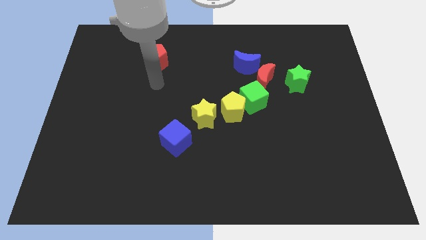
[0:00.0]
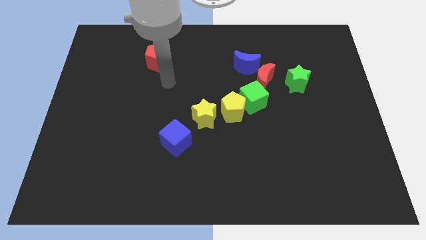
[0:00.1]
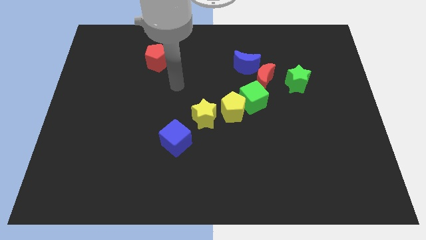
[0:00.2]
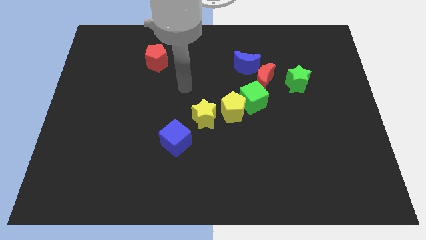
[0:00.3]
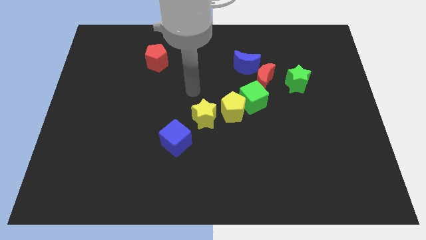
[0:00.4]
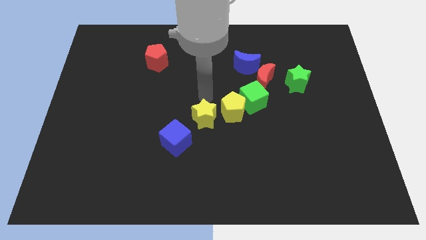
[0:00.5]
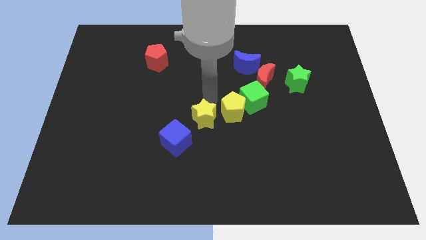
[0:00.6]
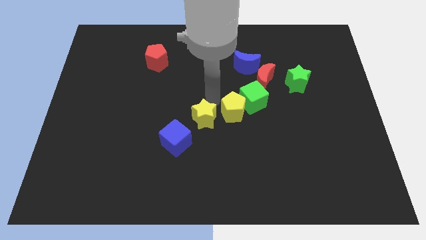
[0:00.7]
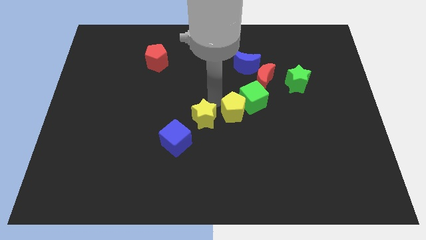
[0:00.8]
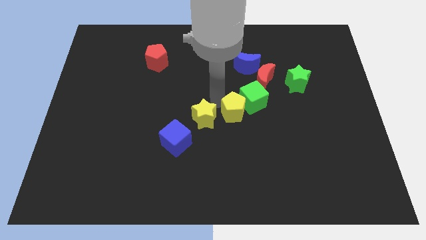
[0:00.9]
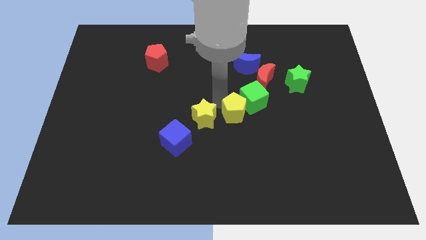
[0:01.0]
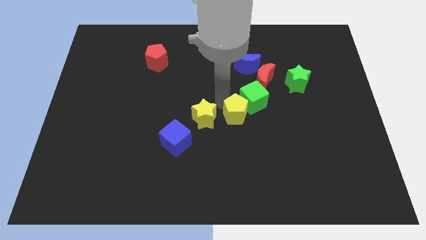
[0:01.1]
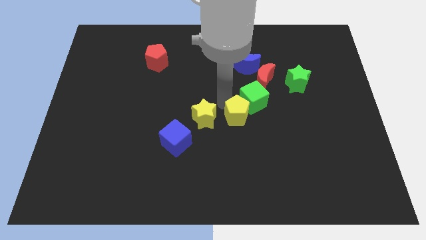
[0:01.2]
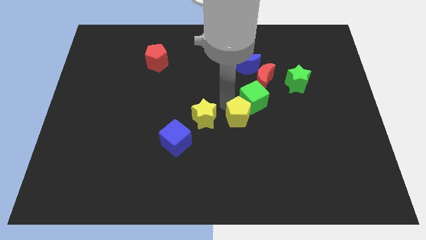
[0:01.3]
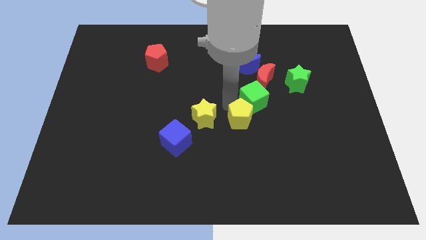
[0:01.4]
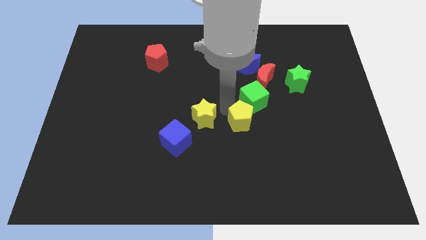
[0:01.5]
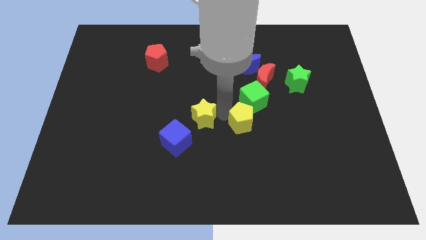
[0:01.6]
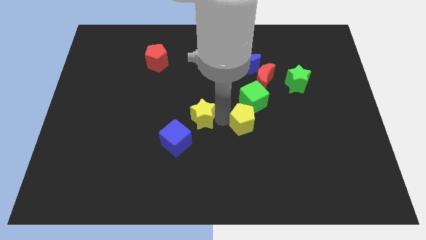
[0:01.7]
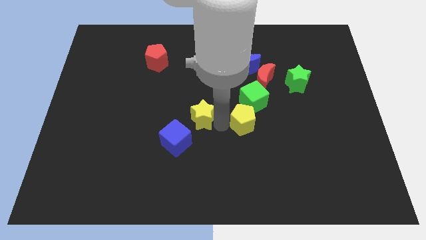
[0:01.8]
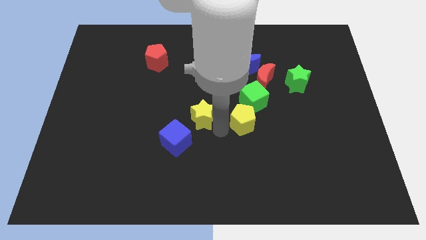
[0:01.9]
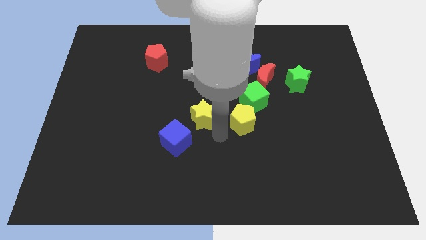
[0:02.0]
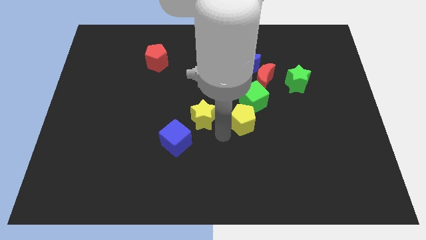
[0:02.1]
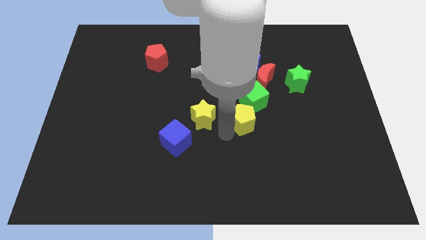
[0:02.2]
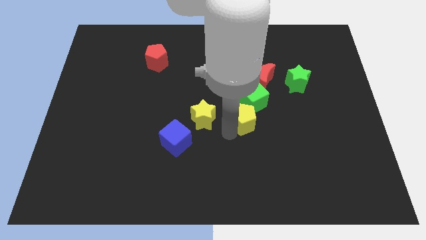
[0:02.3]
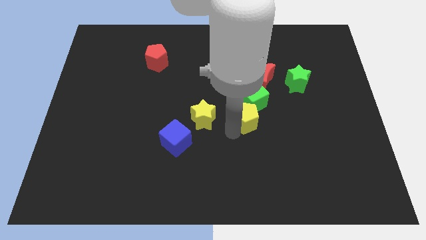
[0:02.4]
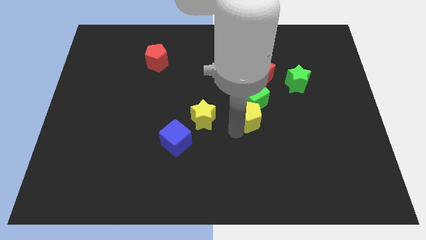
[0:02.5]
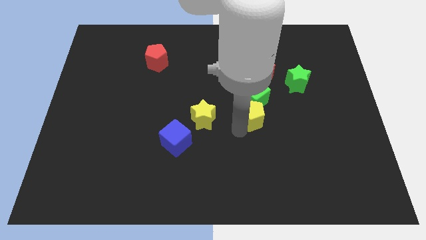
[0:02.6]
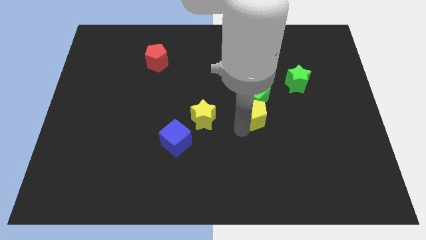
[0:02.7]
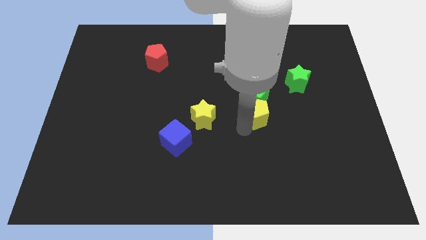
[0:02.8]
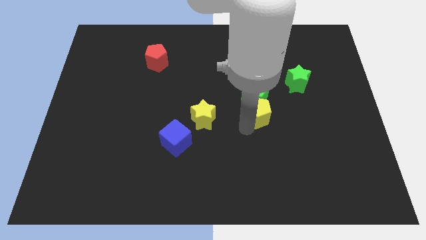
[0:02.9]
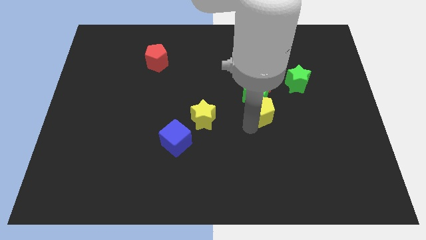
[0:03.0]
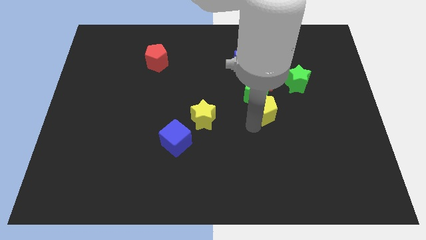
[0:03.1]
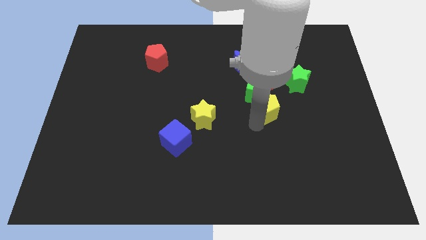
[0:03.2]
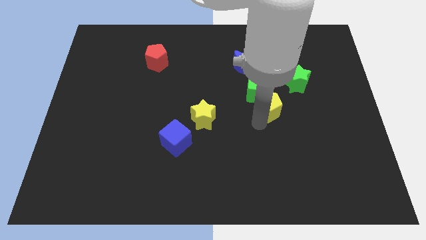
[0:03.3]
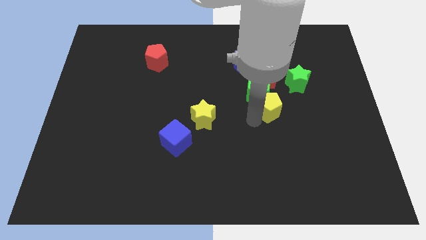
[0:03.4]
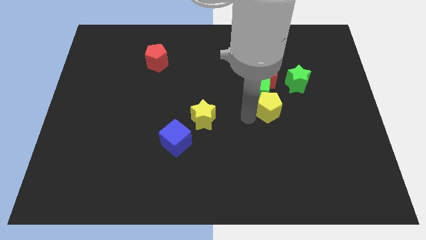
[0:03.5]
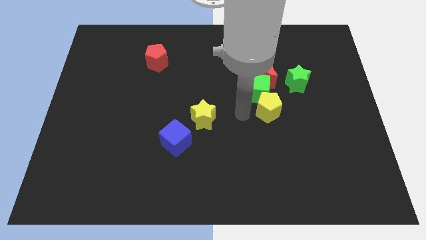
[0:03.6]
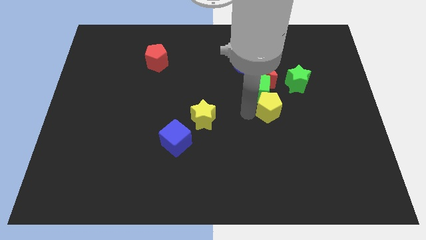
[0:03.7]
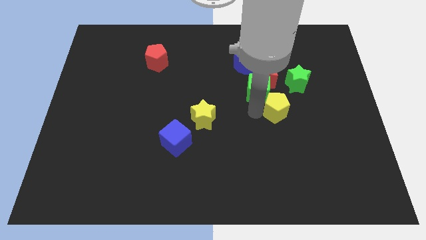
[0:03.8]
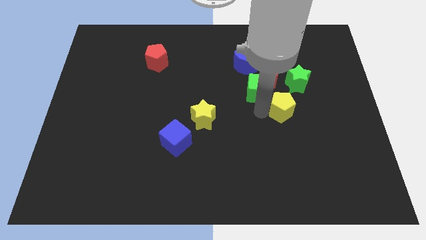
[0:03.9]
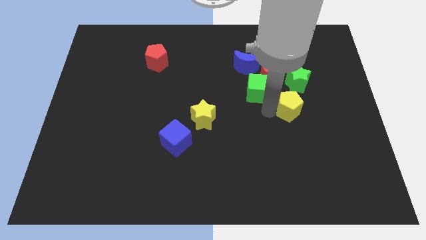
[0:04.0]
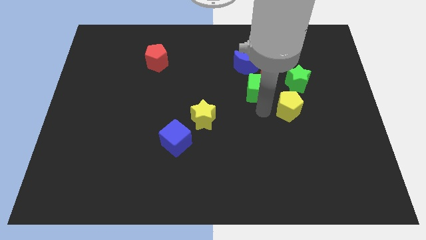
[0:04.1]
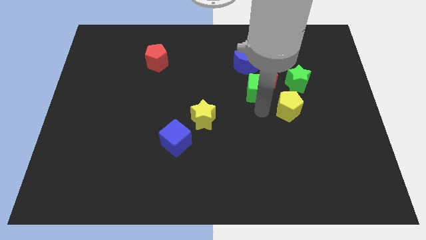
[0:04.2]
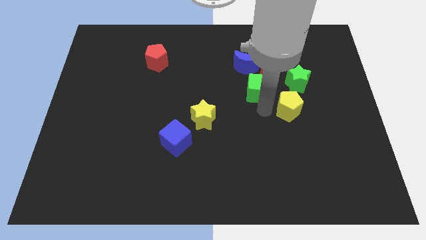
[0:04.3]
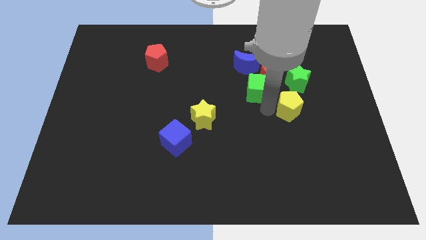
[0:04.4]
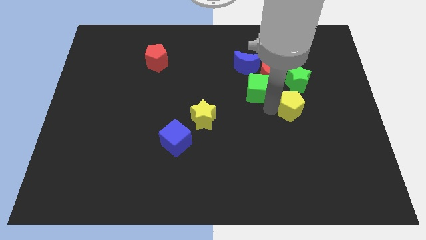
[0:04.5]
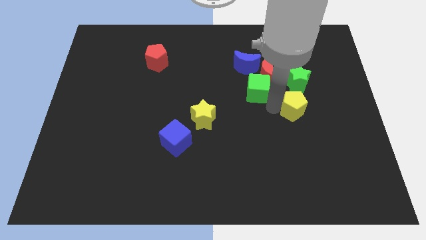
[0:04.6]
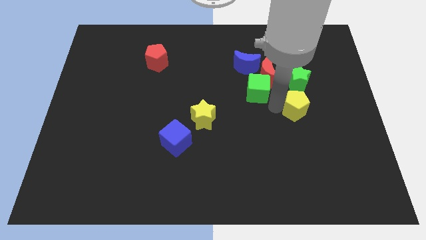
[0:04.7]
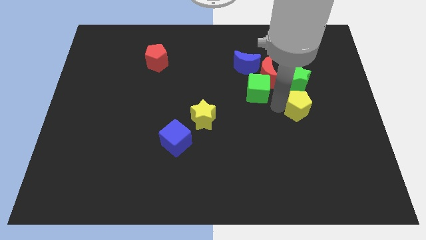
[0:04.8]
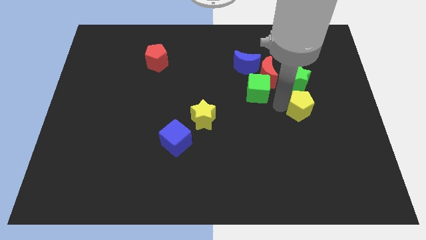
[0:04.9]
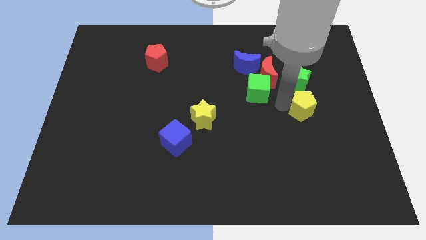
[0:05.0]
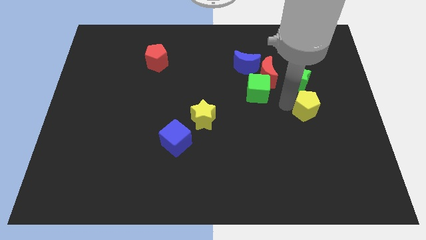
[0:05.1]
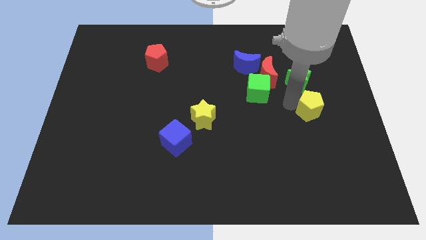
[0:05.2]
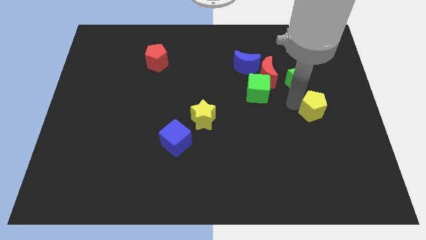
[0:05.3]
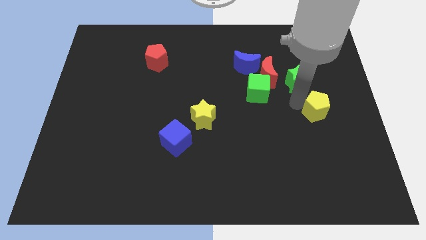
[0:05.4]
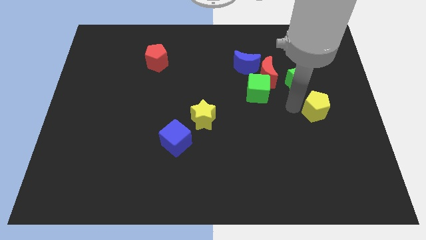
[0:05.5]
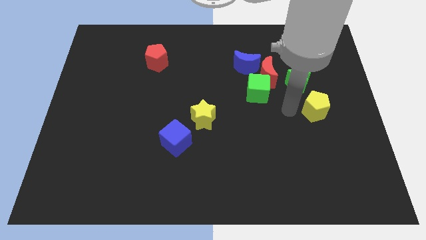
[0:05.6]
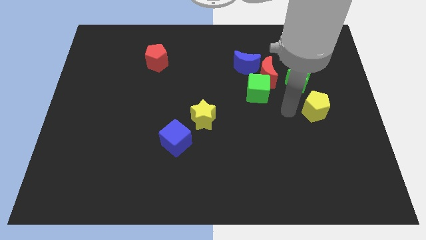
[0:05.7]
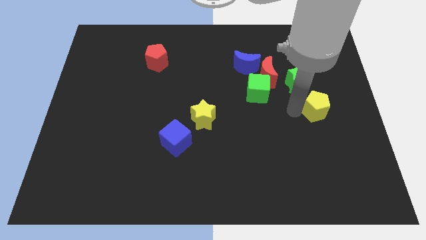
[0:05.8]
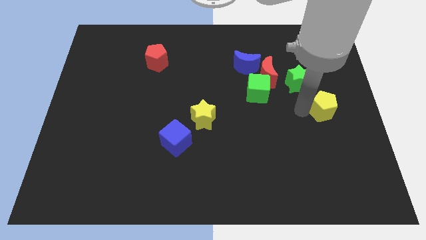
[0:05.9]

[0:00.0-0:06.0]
push the yellow pentagon to the right side of the board
